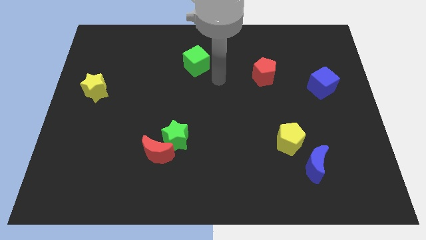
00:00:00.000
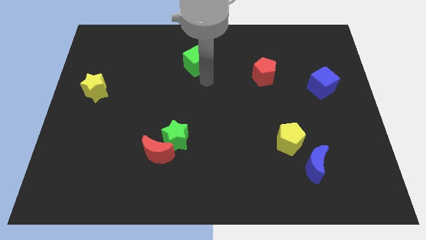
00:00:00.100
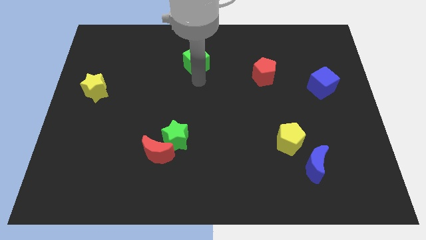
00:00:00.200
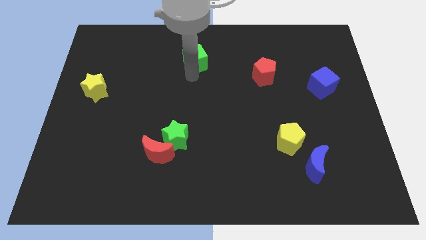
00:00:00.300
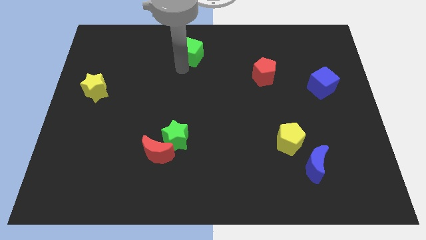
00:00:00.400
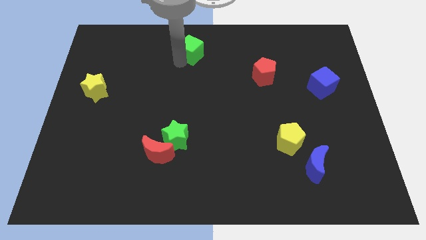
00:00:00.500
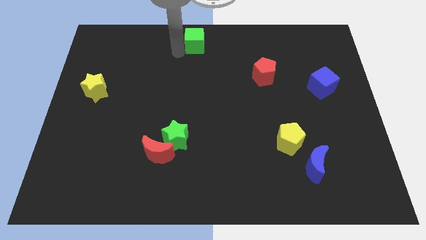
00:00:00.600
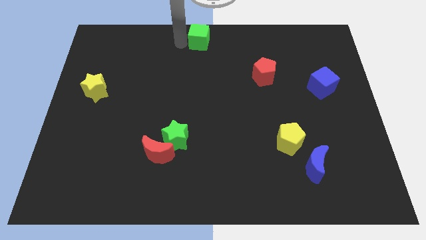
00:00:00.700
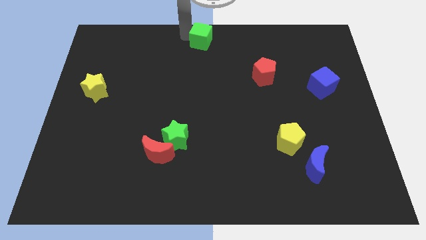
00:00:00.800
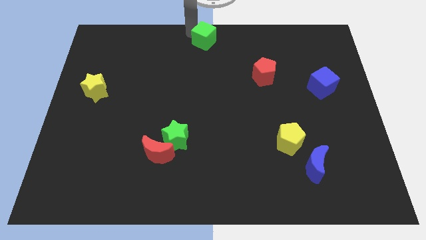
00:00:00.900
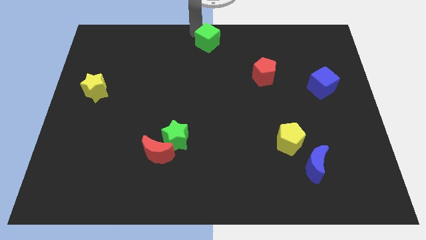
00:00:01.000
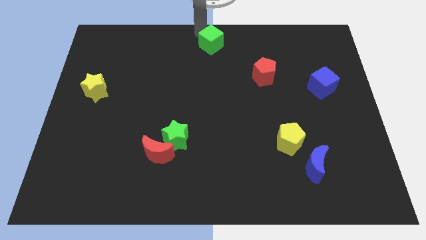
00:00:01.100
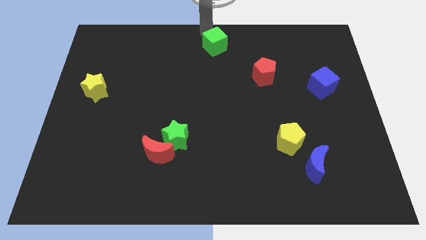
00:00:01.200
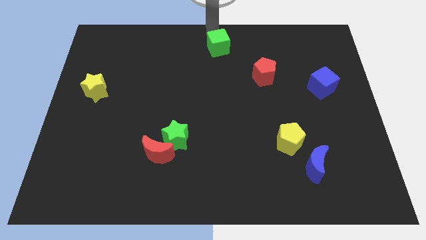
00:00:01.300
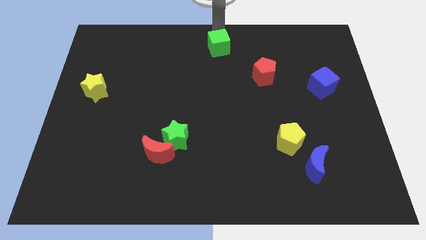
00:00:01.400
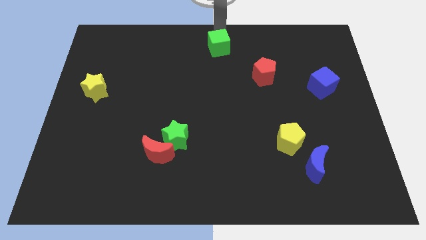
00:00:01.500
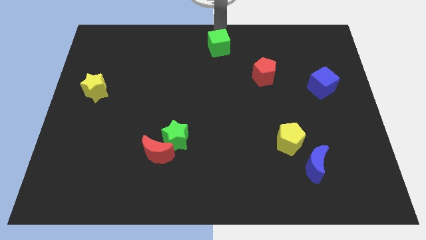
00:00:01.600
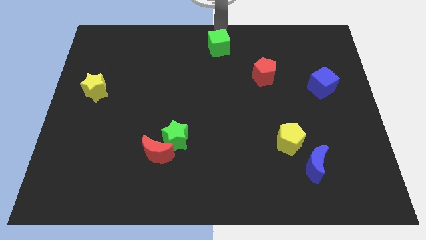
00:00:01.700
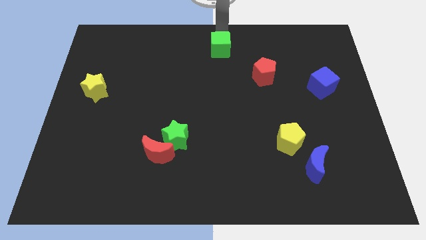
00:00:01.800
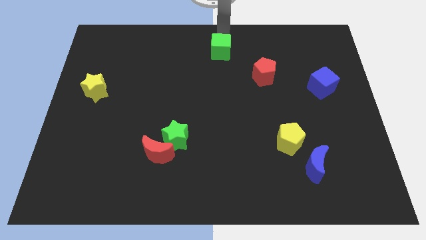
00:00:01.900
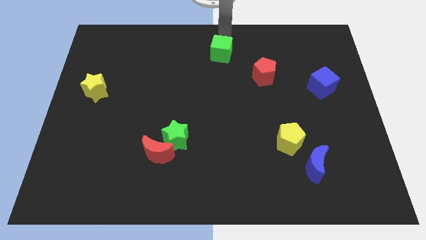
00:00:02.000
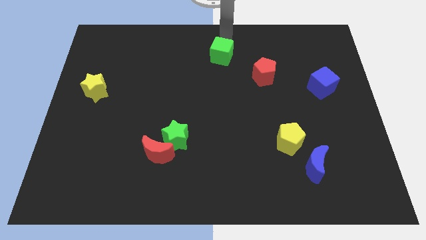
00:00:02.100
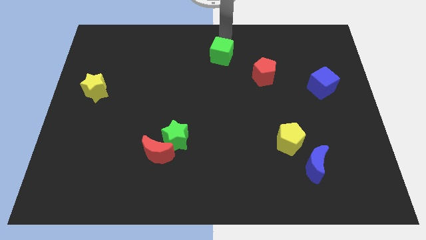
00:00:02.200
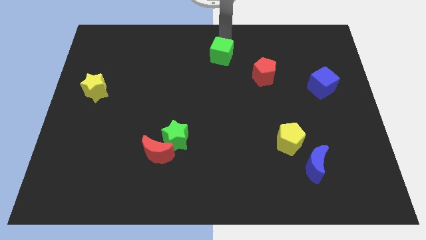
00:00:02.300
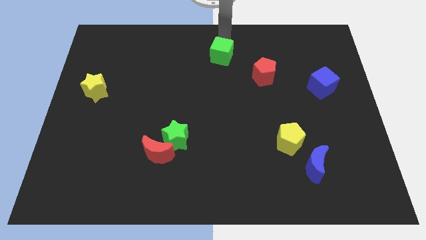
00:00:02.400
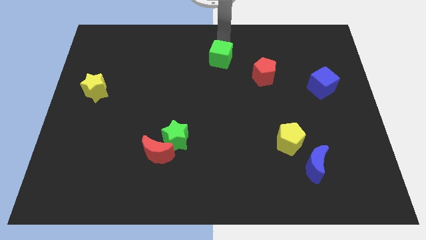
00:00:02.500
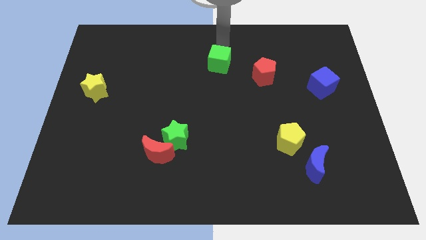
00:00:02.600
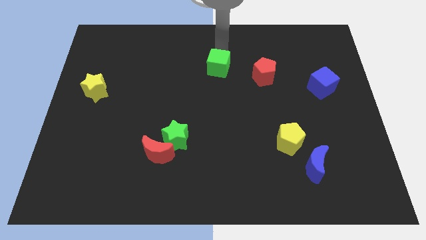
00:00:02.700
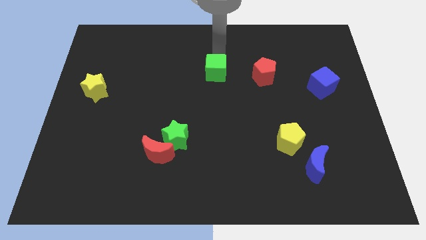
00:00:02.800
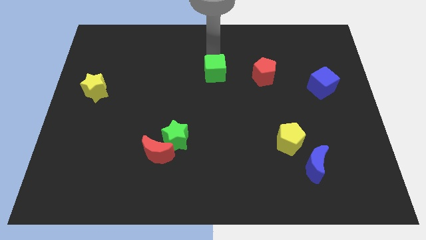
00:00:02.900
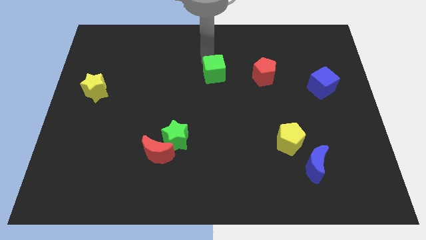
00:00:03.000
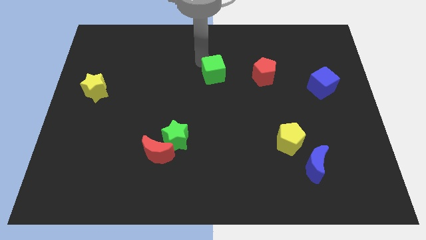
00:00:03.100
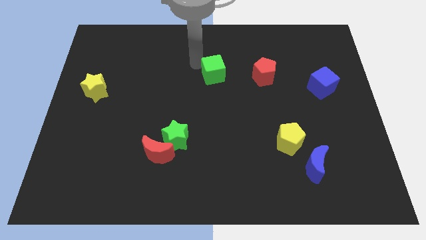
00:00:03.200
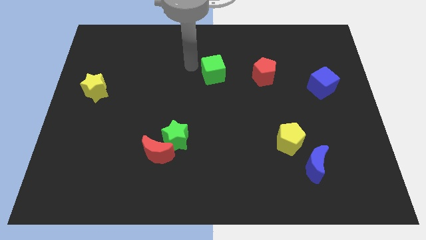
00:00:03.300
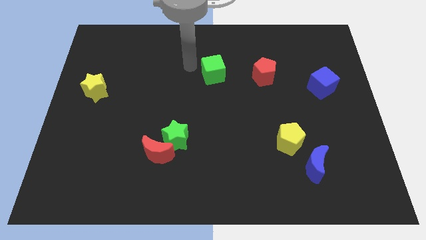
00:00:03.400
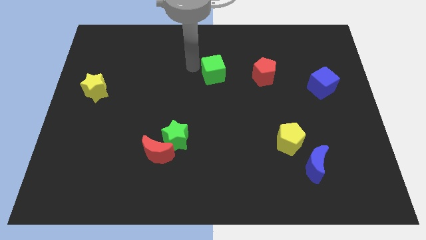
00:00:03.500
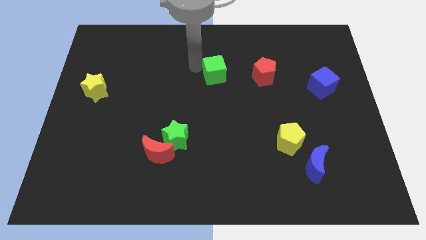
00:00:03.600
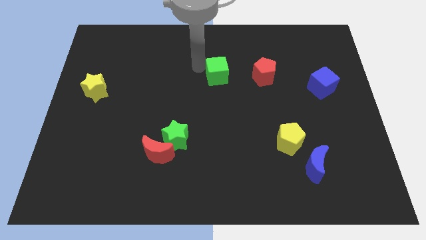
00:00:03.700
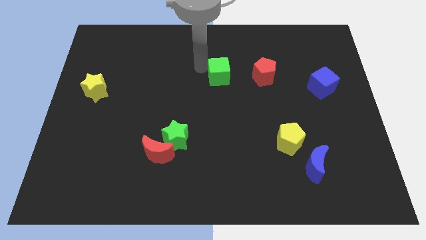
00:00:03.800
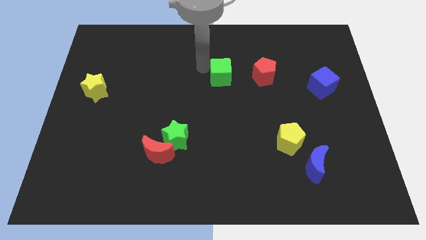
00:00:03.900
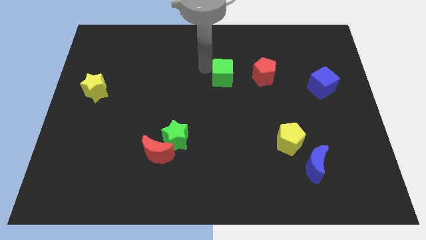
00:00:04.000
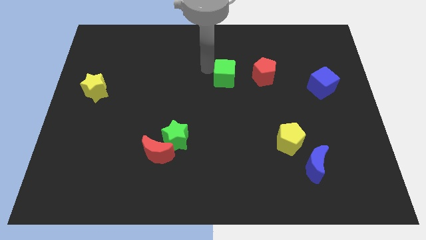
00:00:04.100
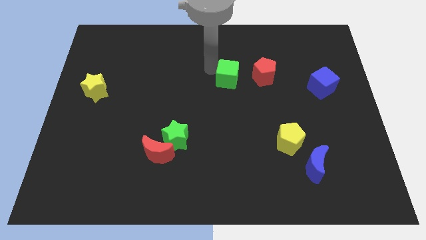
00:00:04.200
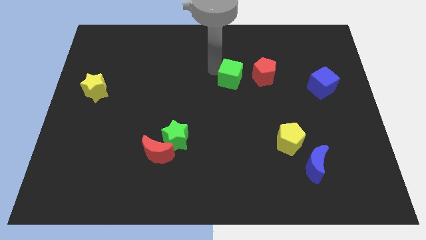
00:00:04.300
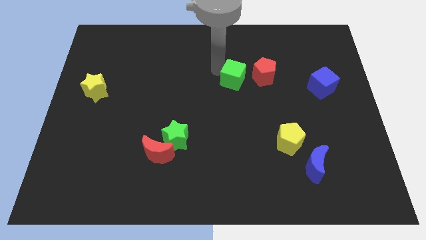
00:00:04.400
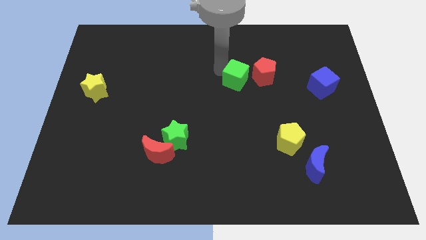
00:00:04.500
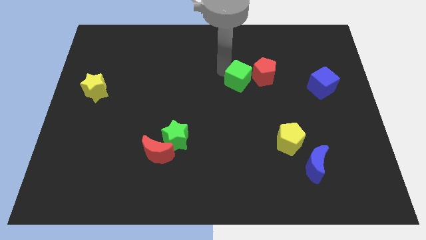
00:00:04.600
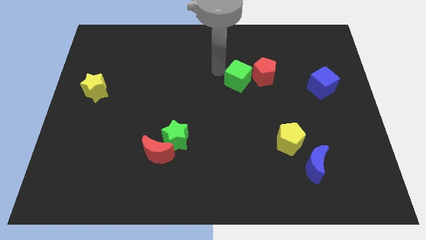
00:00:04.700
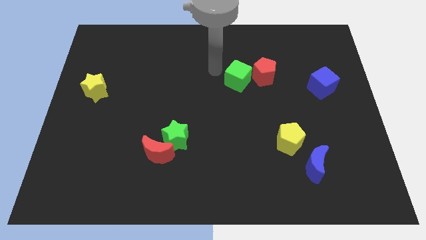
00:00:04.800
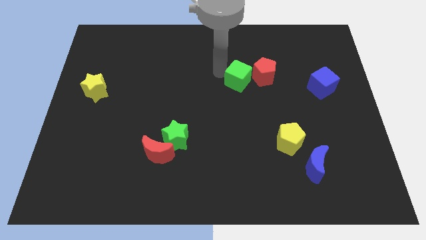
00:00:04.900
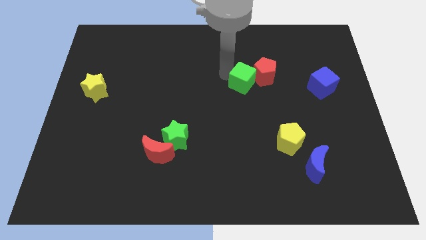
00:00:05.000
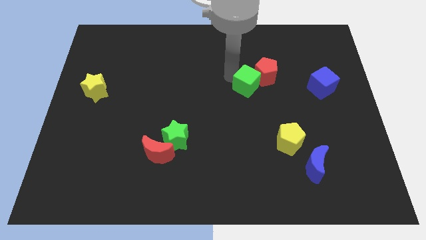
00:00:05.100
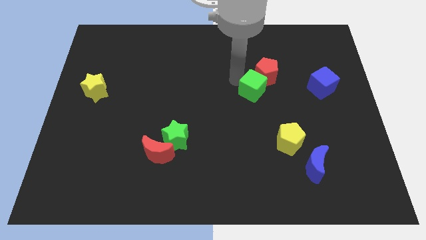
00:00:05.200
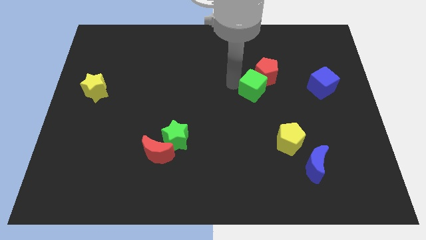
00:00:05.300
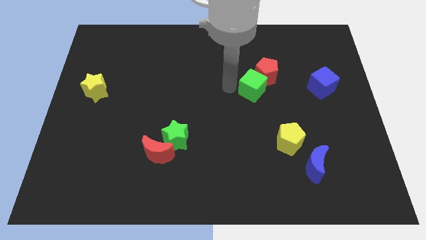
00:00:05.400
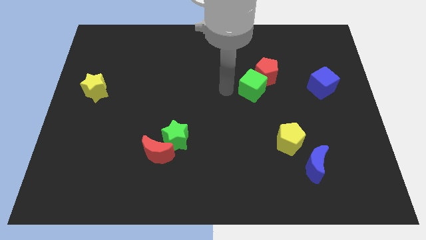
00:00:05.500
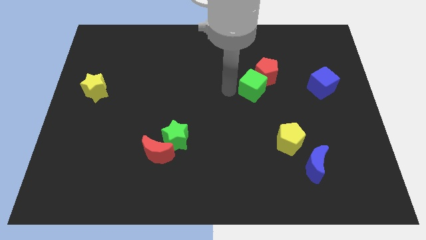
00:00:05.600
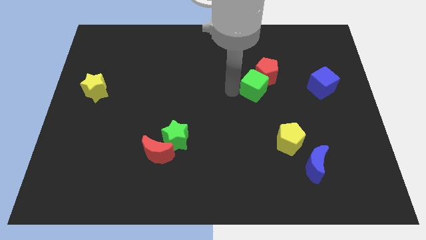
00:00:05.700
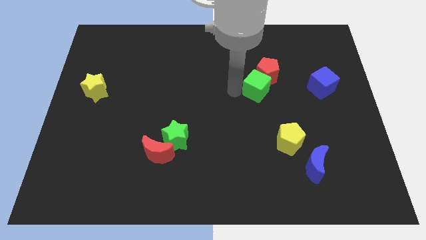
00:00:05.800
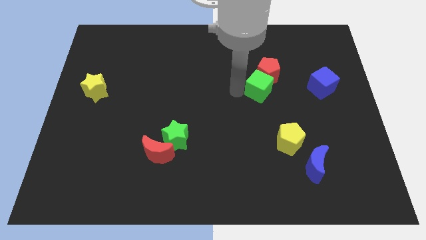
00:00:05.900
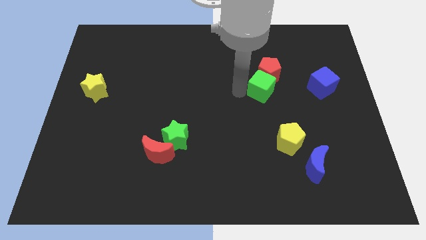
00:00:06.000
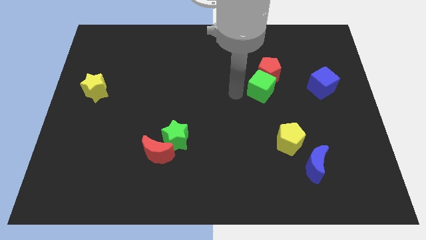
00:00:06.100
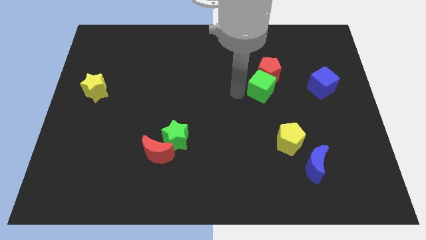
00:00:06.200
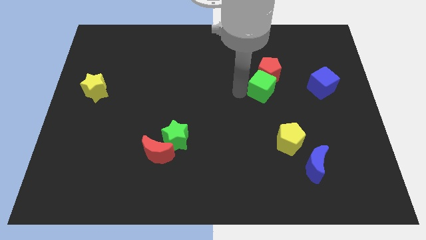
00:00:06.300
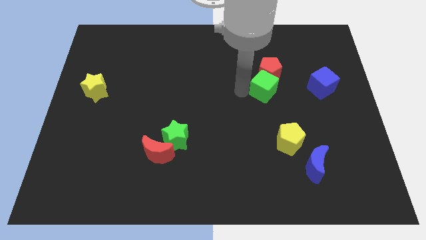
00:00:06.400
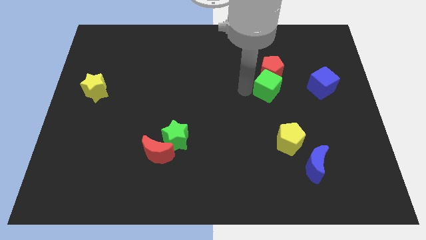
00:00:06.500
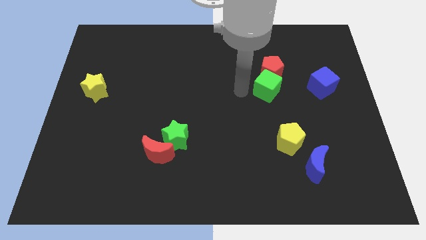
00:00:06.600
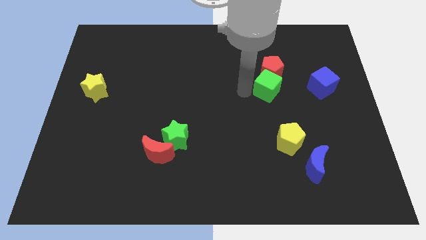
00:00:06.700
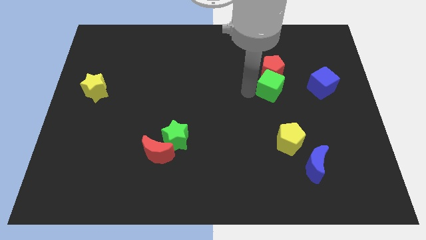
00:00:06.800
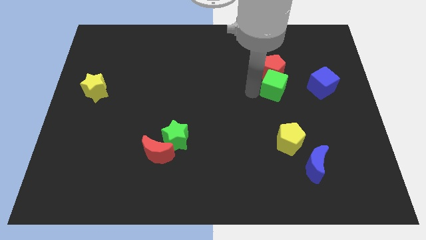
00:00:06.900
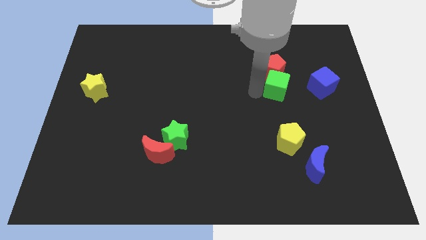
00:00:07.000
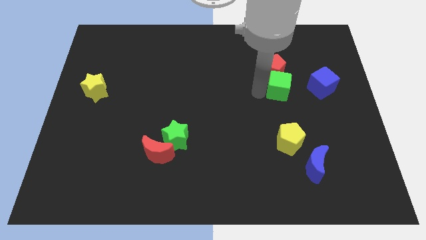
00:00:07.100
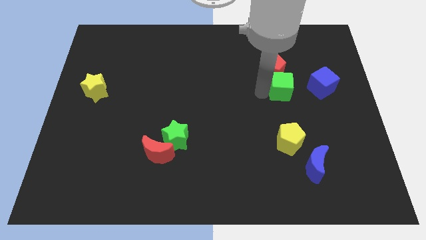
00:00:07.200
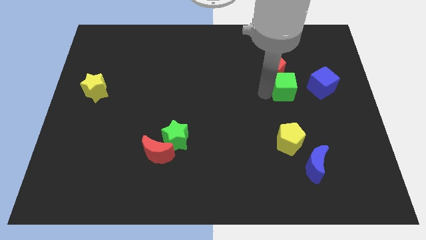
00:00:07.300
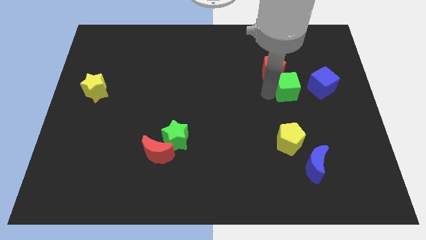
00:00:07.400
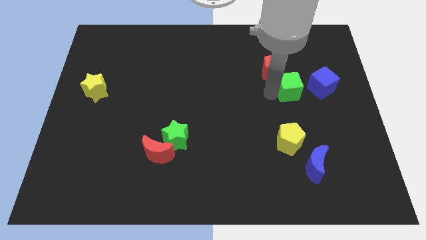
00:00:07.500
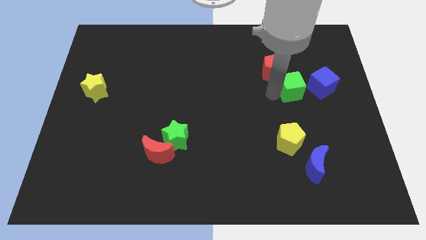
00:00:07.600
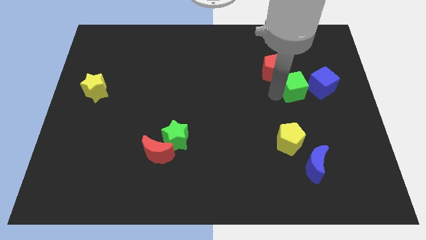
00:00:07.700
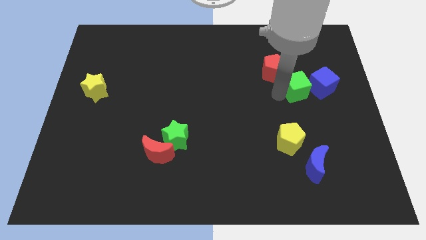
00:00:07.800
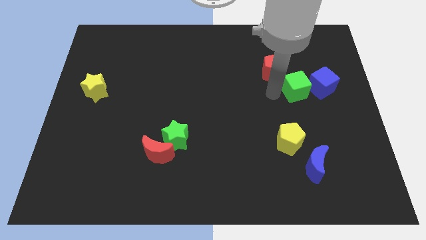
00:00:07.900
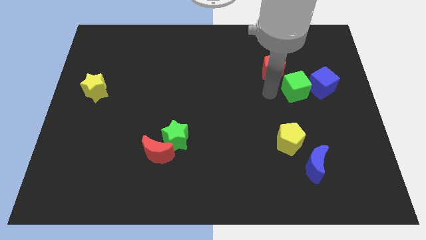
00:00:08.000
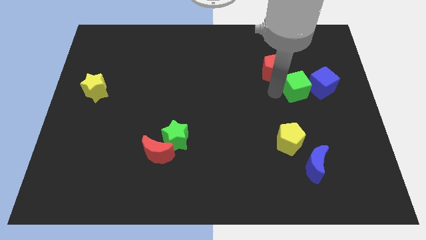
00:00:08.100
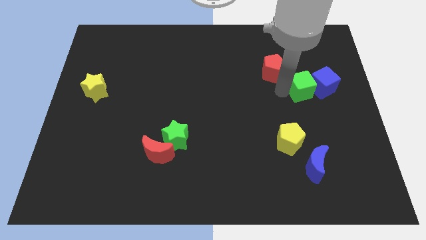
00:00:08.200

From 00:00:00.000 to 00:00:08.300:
move the green cube to the blue cube

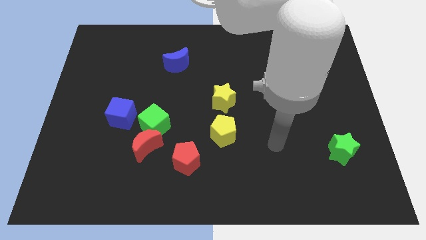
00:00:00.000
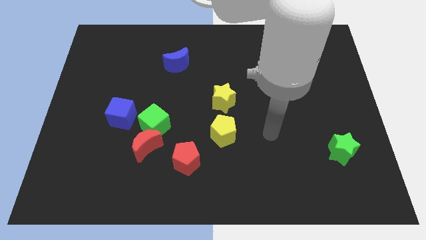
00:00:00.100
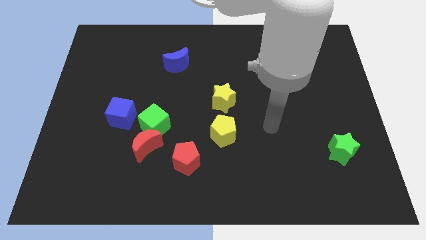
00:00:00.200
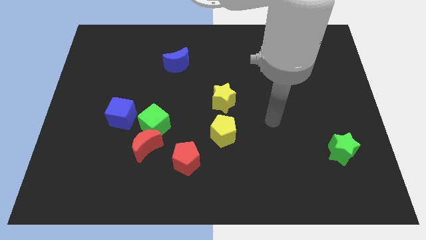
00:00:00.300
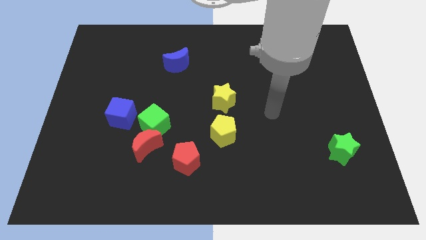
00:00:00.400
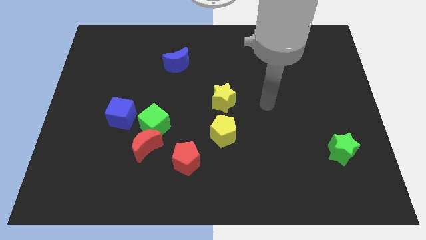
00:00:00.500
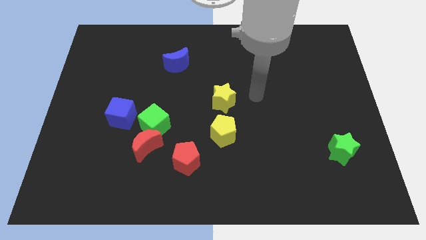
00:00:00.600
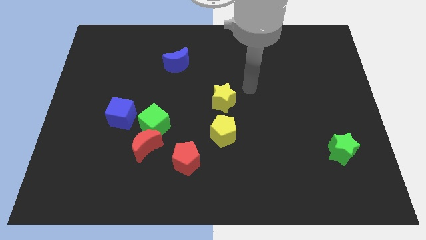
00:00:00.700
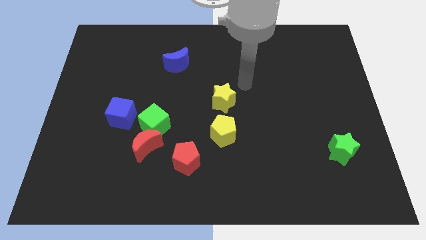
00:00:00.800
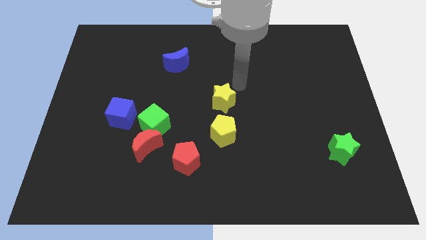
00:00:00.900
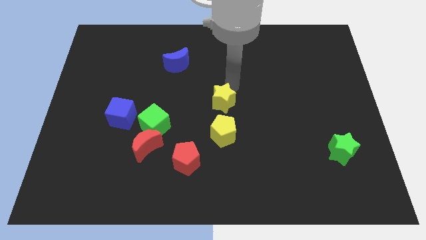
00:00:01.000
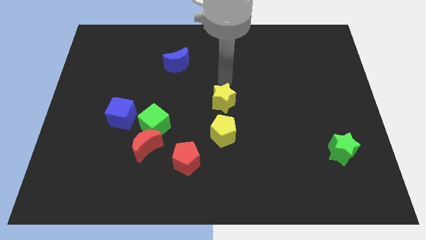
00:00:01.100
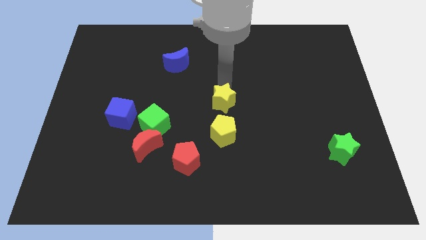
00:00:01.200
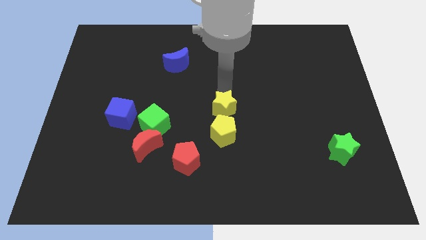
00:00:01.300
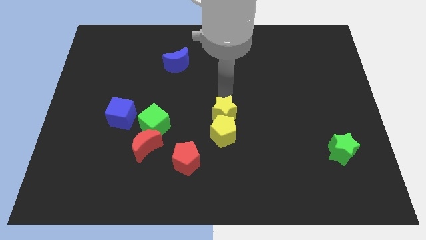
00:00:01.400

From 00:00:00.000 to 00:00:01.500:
slide the yellow star close to the yellow pentagon
